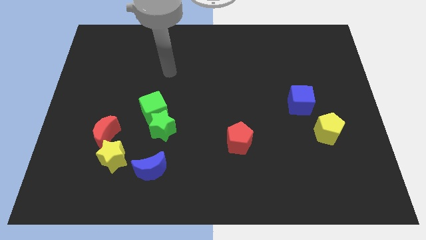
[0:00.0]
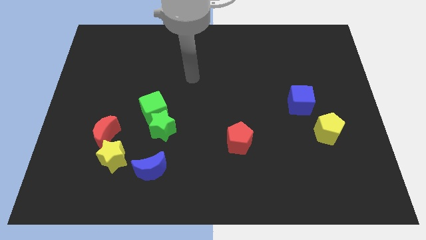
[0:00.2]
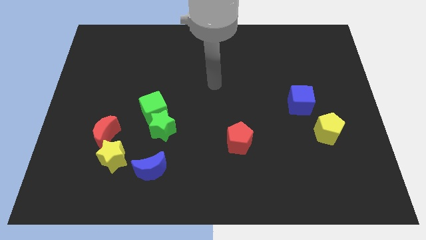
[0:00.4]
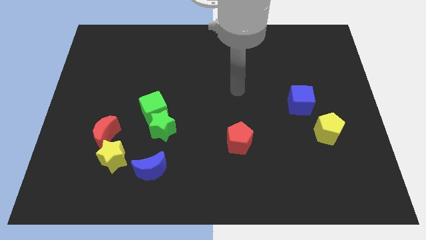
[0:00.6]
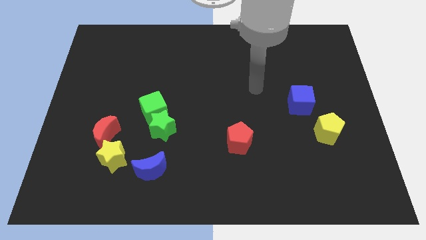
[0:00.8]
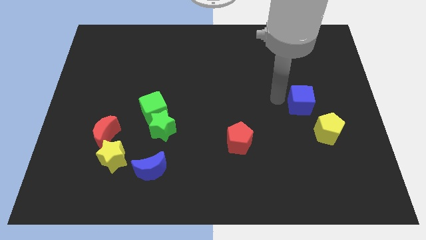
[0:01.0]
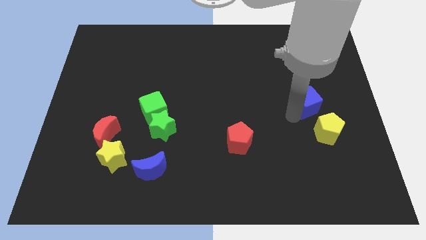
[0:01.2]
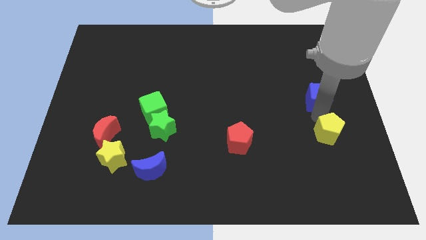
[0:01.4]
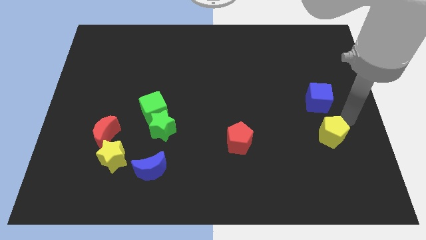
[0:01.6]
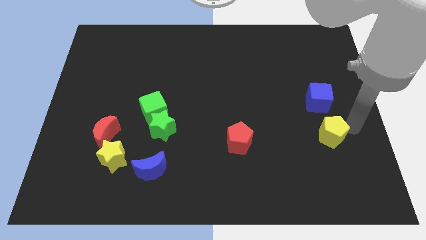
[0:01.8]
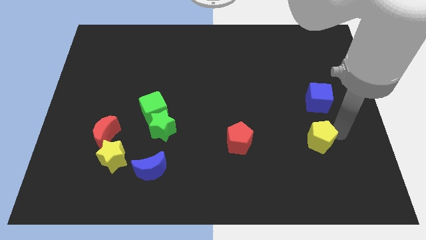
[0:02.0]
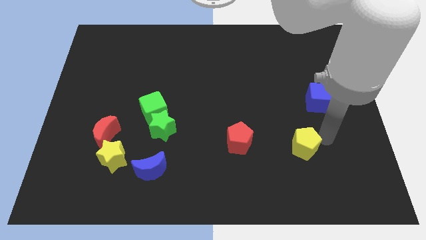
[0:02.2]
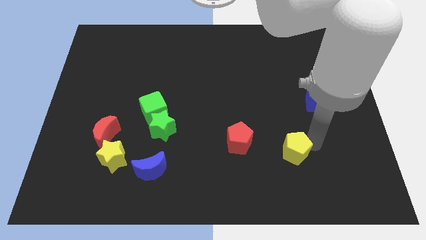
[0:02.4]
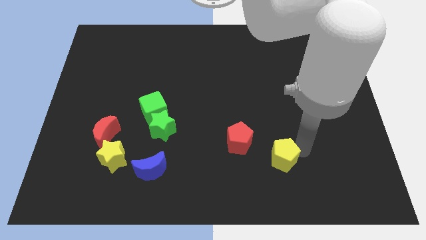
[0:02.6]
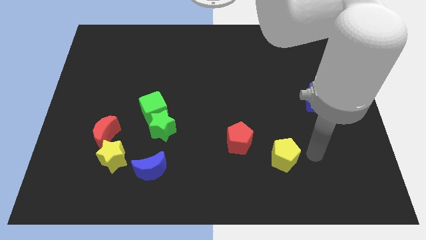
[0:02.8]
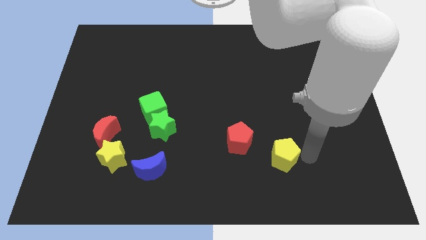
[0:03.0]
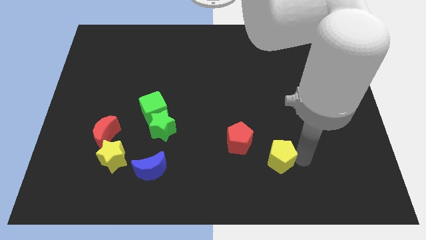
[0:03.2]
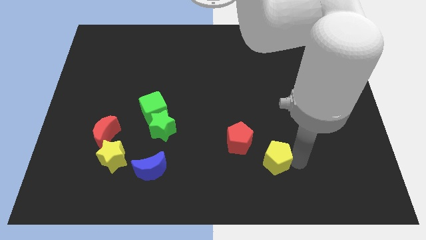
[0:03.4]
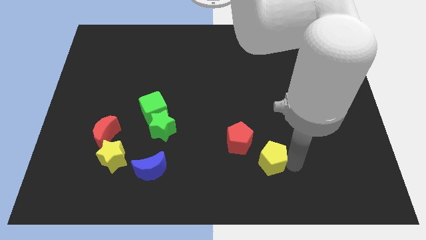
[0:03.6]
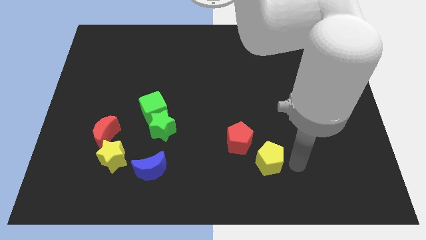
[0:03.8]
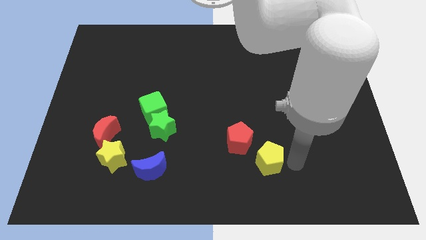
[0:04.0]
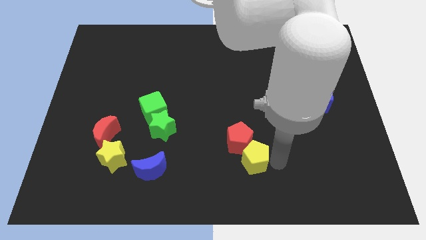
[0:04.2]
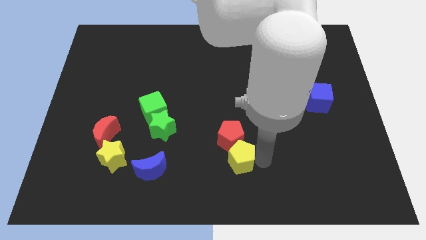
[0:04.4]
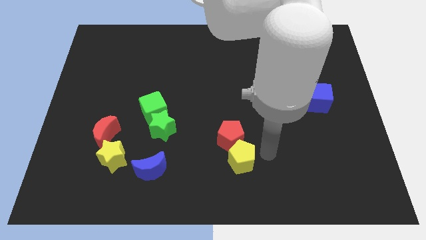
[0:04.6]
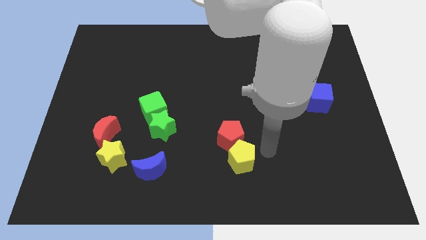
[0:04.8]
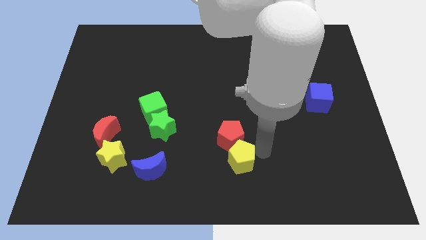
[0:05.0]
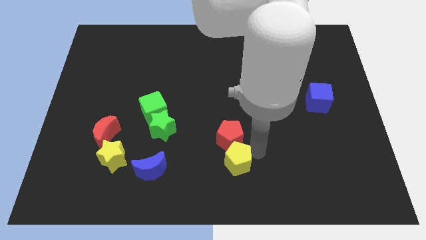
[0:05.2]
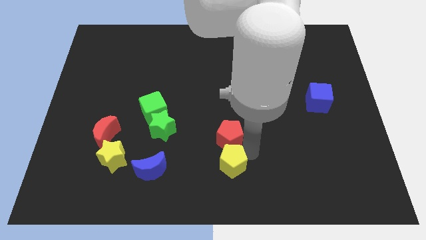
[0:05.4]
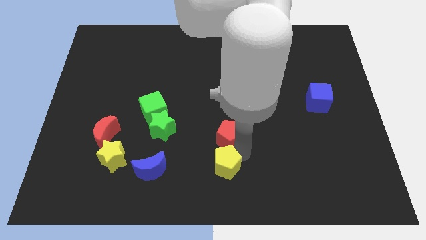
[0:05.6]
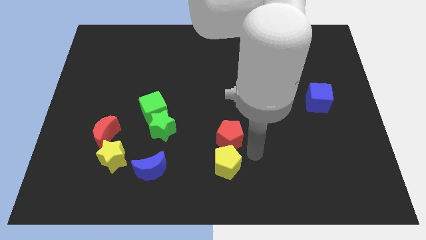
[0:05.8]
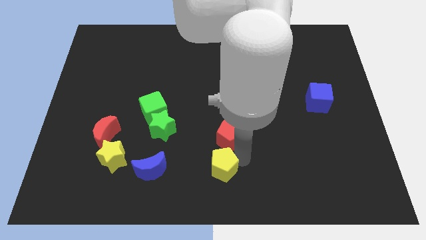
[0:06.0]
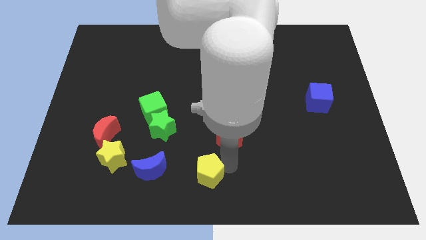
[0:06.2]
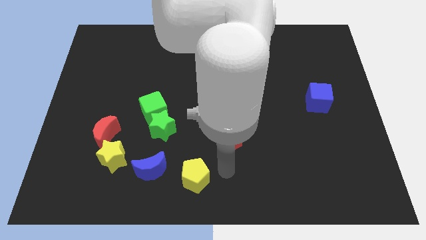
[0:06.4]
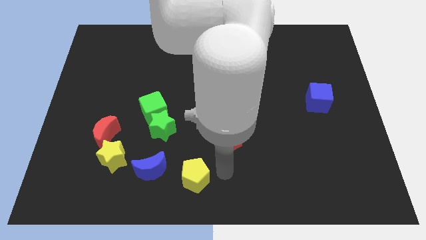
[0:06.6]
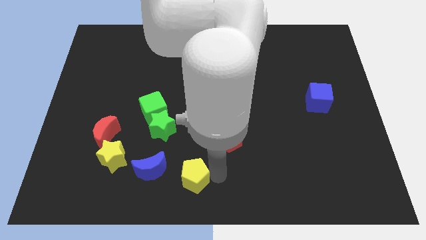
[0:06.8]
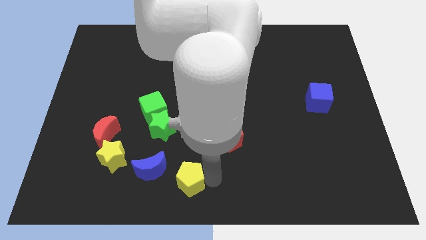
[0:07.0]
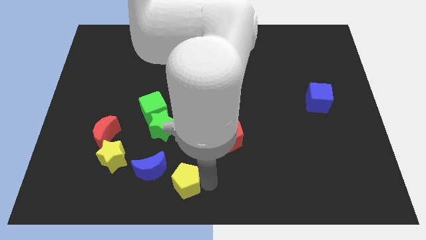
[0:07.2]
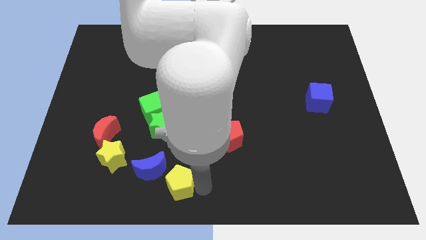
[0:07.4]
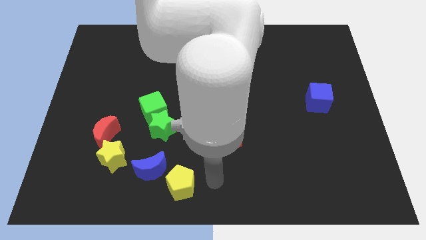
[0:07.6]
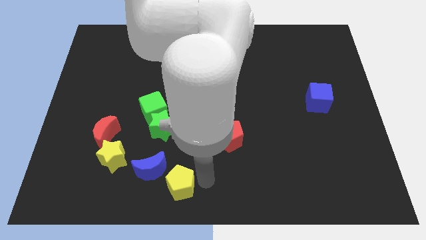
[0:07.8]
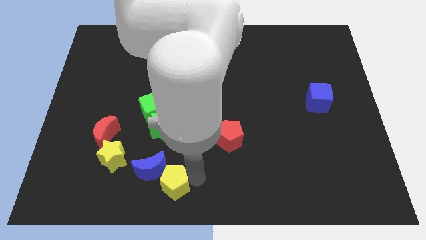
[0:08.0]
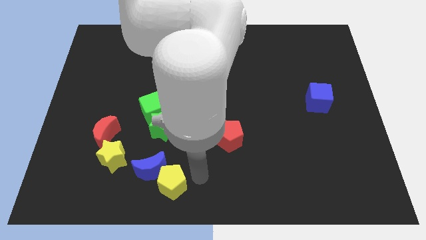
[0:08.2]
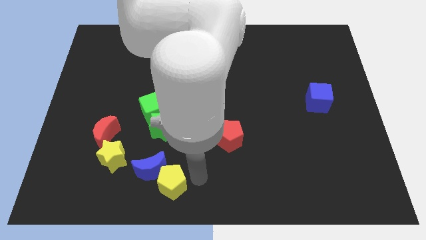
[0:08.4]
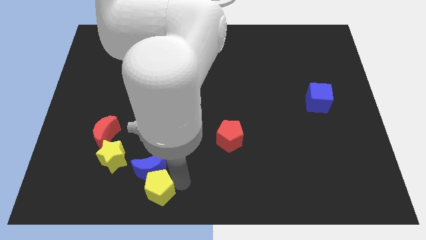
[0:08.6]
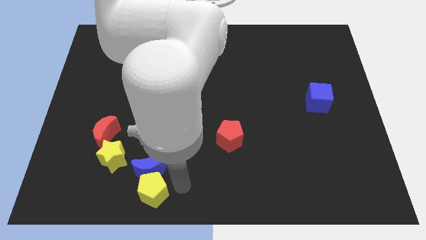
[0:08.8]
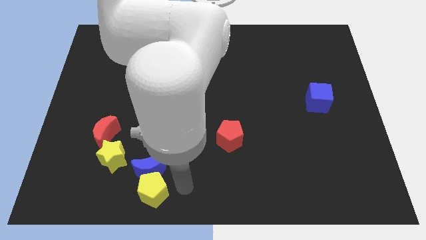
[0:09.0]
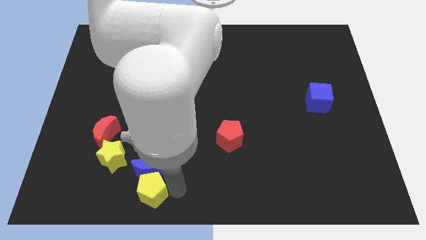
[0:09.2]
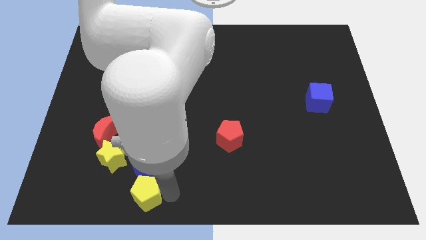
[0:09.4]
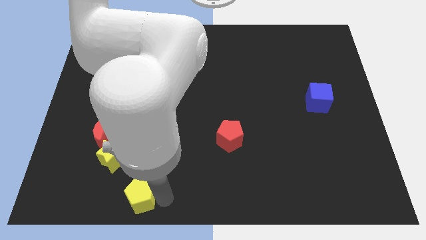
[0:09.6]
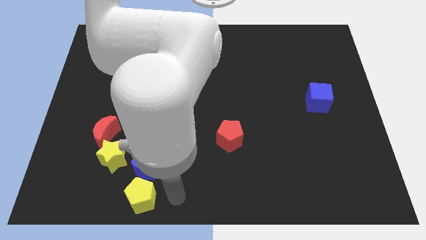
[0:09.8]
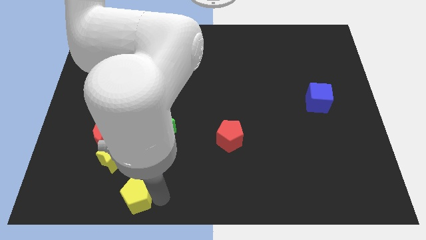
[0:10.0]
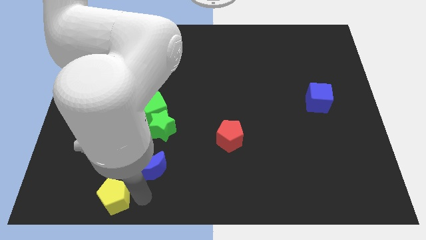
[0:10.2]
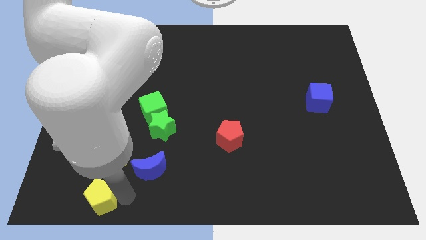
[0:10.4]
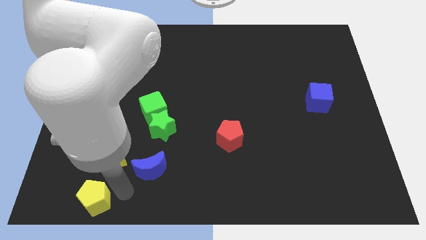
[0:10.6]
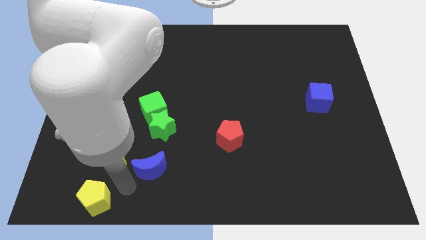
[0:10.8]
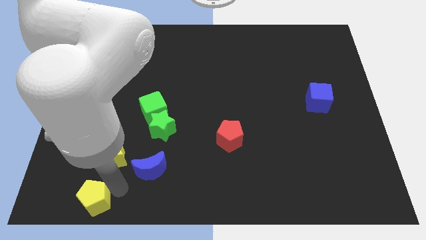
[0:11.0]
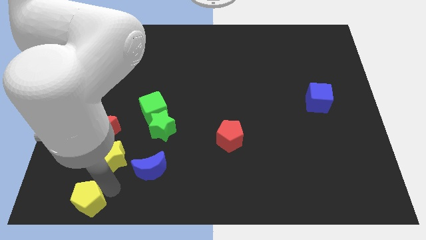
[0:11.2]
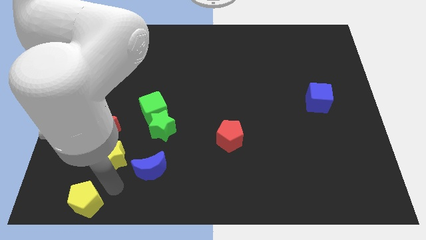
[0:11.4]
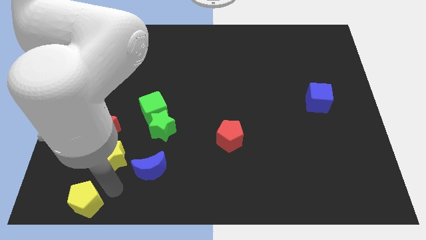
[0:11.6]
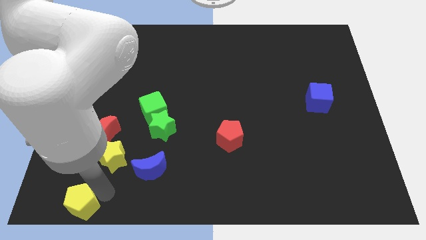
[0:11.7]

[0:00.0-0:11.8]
push the yellow pentagon to the bottom left of the board
